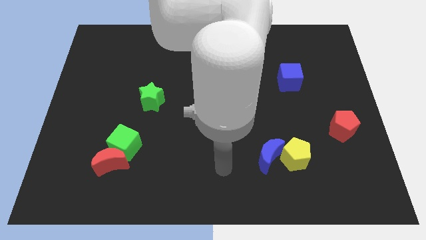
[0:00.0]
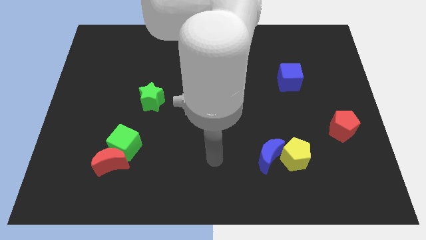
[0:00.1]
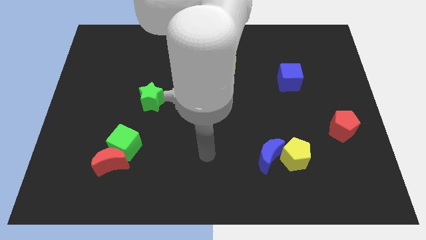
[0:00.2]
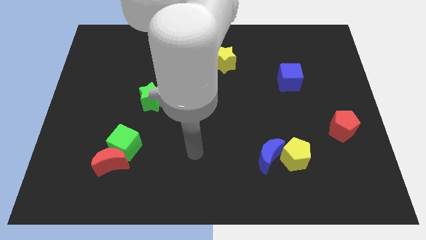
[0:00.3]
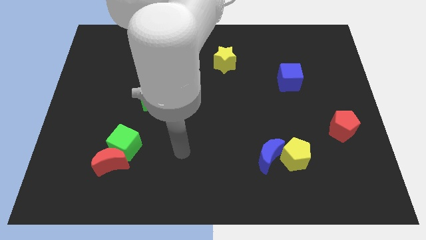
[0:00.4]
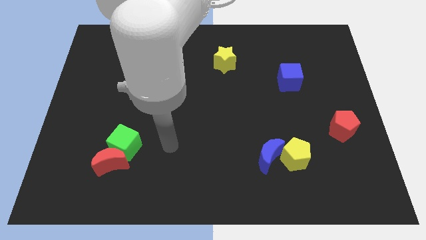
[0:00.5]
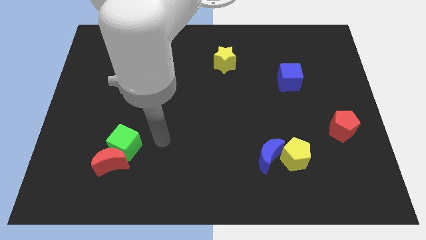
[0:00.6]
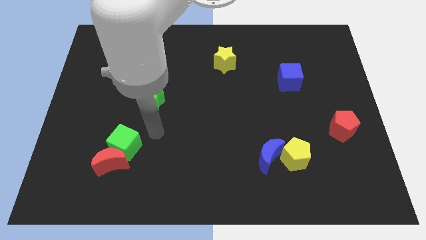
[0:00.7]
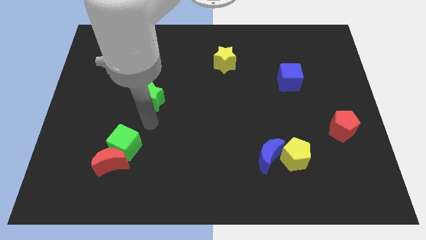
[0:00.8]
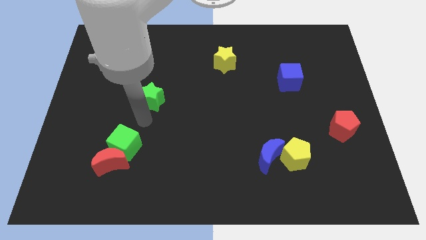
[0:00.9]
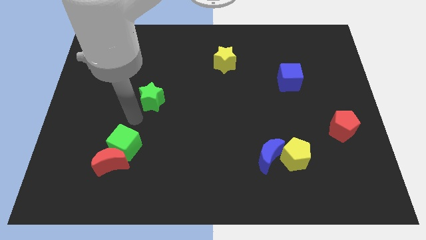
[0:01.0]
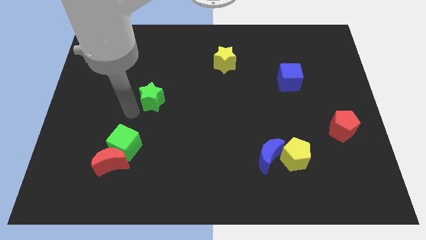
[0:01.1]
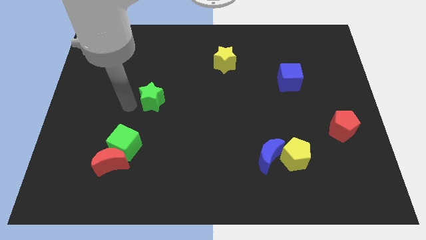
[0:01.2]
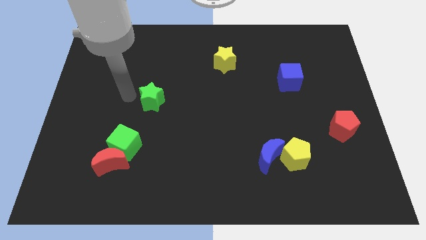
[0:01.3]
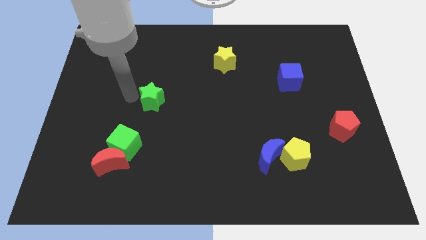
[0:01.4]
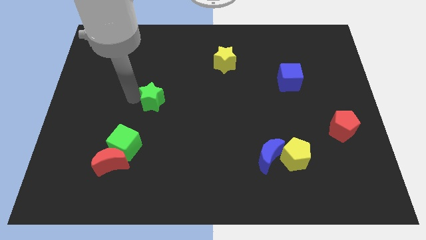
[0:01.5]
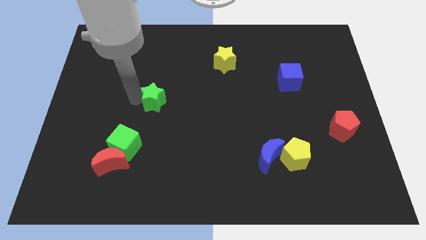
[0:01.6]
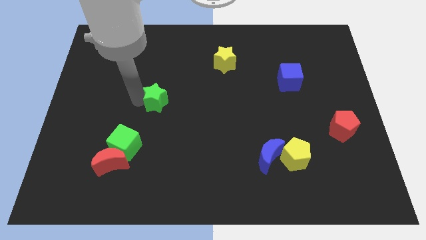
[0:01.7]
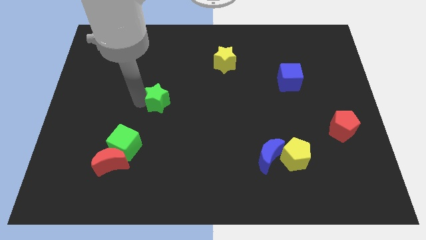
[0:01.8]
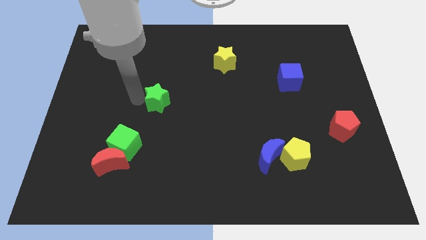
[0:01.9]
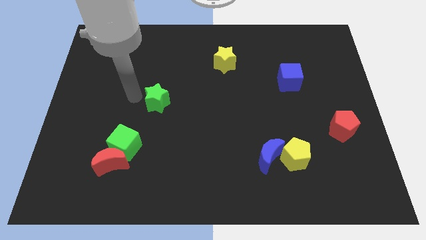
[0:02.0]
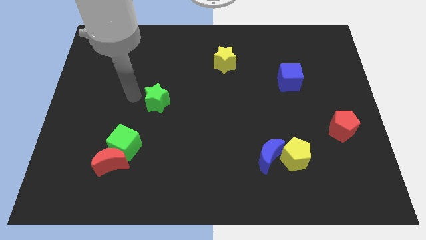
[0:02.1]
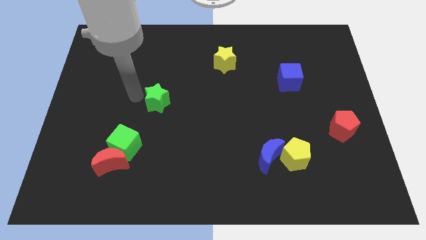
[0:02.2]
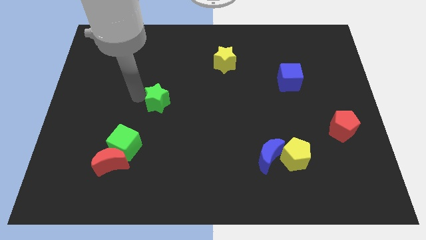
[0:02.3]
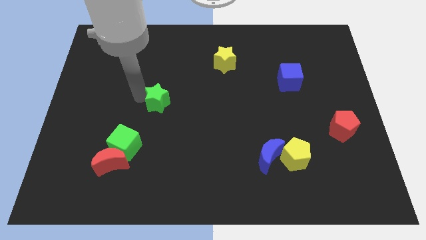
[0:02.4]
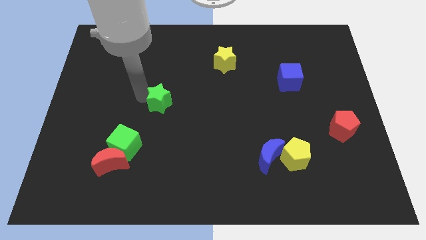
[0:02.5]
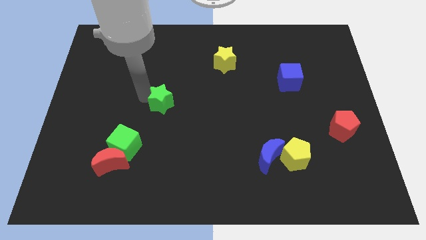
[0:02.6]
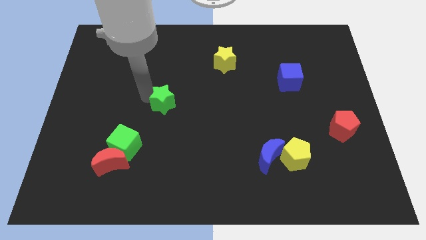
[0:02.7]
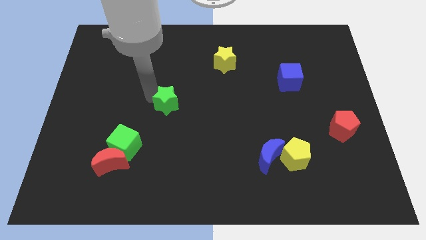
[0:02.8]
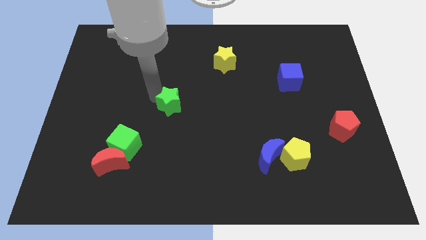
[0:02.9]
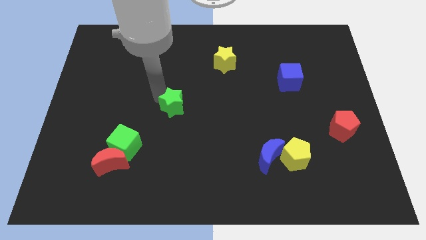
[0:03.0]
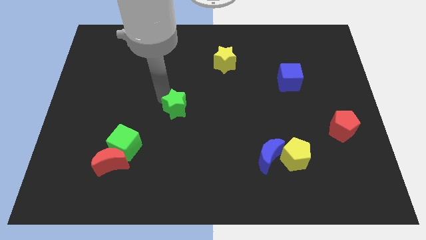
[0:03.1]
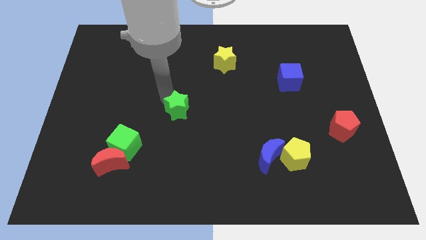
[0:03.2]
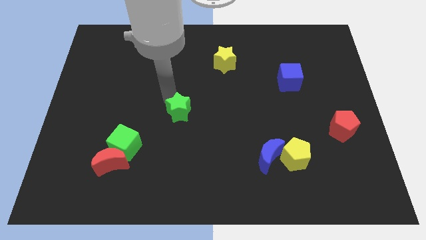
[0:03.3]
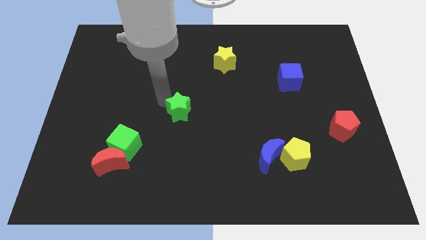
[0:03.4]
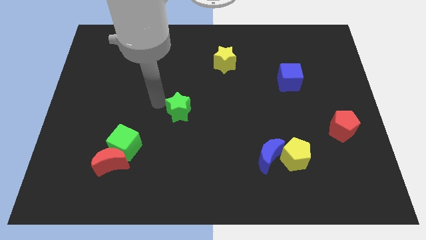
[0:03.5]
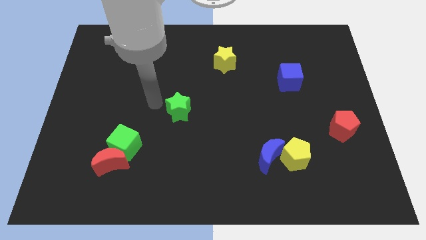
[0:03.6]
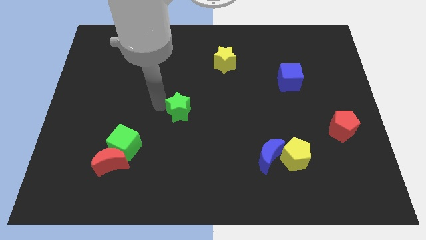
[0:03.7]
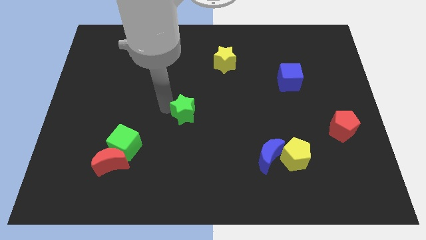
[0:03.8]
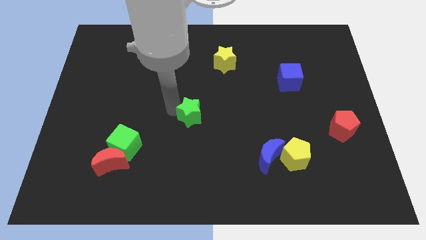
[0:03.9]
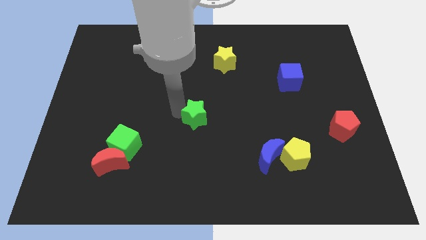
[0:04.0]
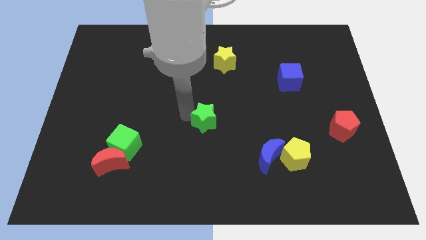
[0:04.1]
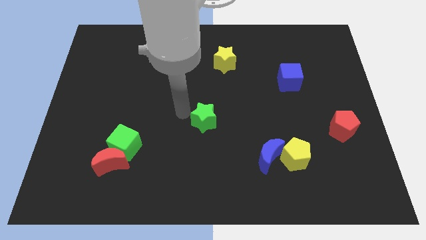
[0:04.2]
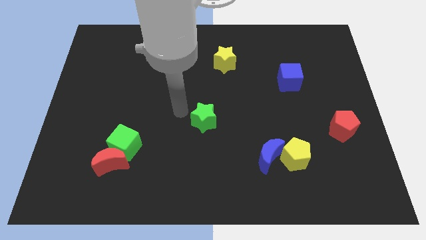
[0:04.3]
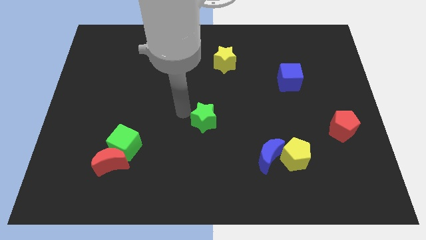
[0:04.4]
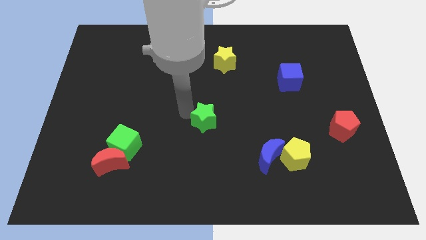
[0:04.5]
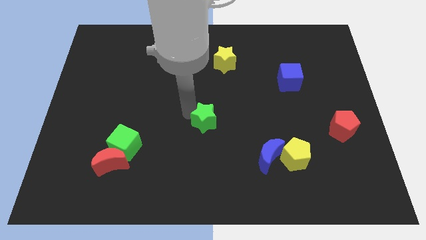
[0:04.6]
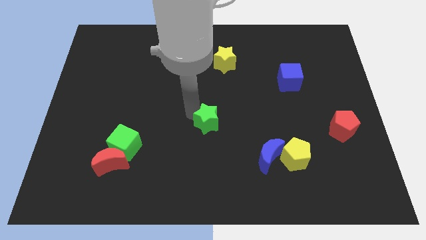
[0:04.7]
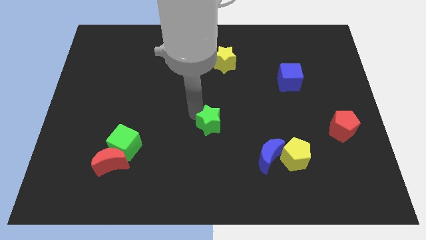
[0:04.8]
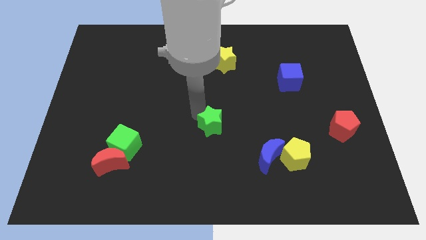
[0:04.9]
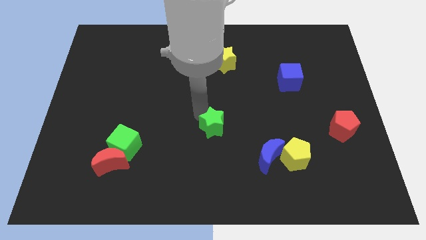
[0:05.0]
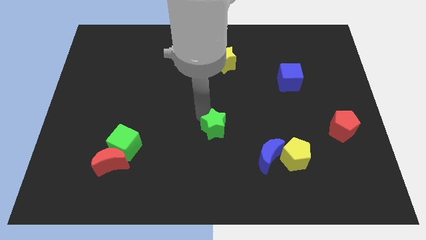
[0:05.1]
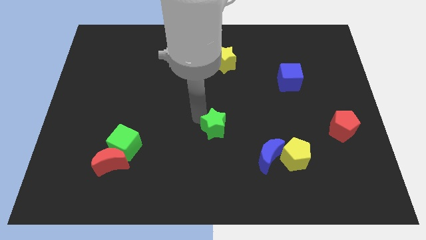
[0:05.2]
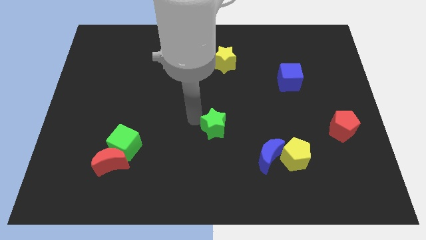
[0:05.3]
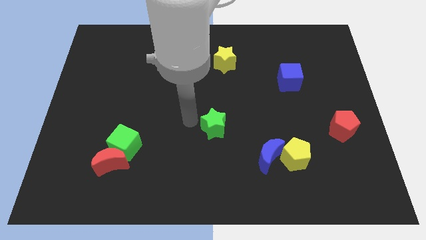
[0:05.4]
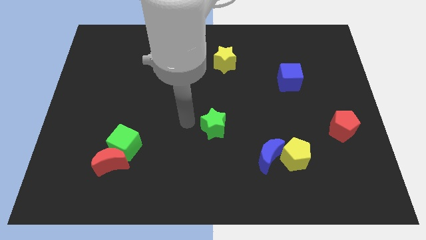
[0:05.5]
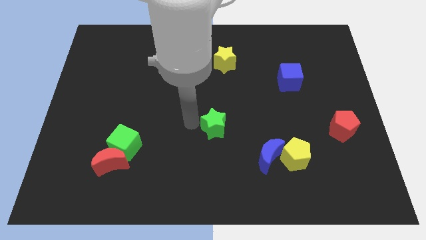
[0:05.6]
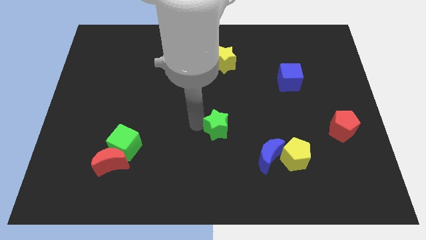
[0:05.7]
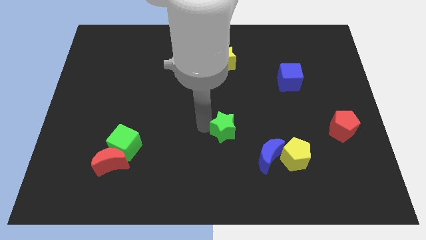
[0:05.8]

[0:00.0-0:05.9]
move the green star diagonally up and to the left of the blue moon

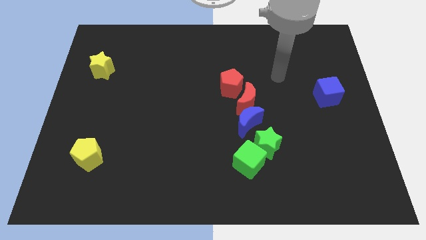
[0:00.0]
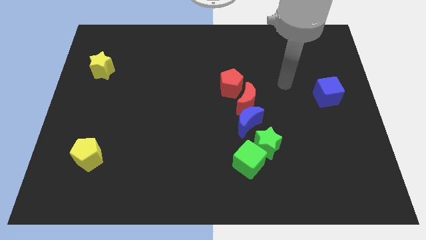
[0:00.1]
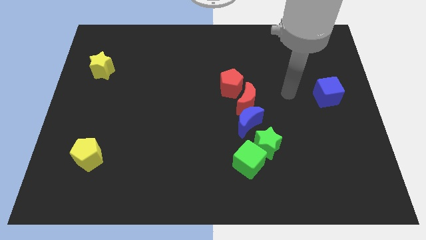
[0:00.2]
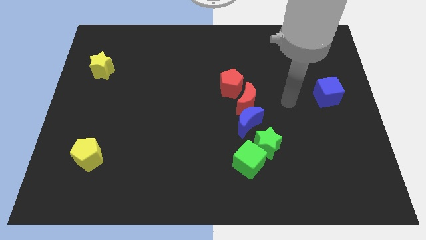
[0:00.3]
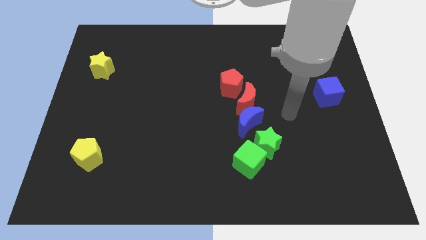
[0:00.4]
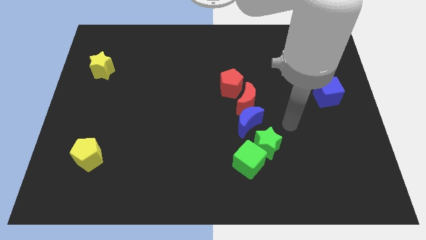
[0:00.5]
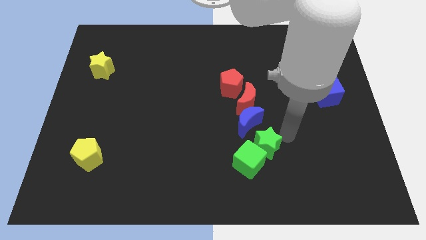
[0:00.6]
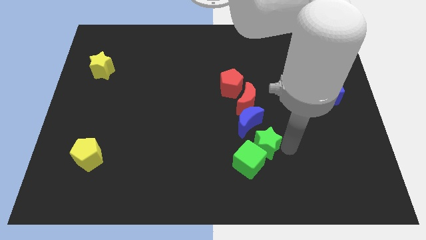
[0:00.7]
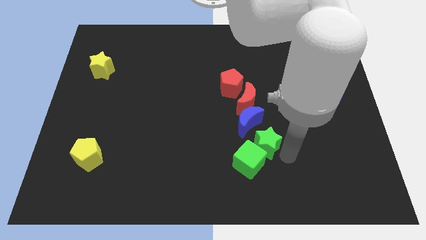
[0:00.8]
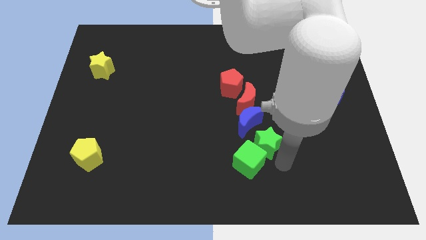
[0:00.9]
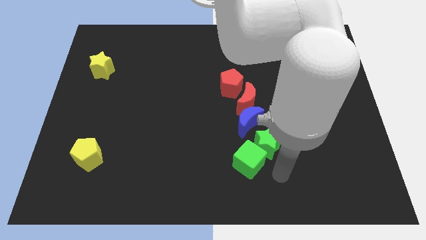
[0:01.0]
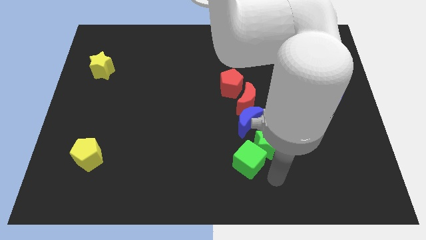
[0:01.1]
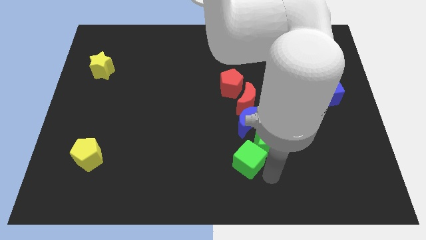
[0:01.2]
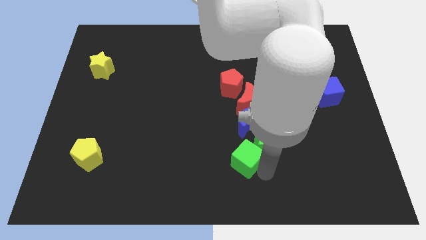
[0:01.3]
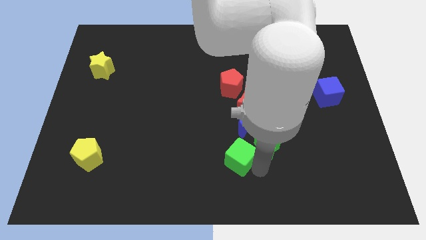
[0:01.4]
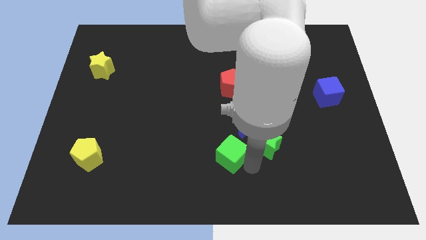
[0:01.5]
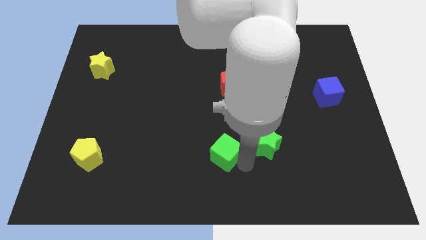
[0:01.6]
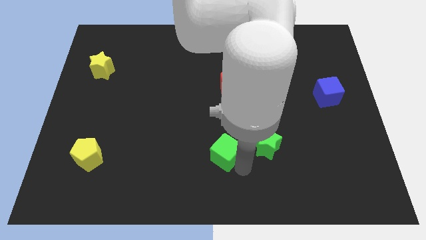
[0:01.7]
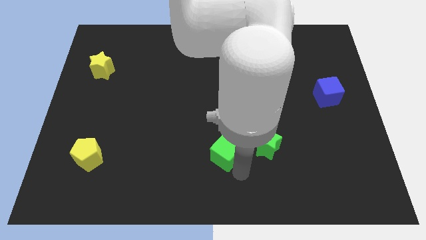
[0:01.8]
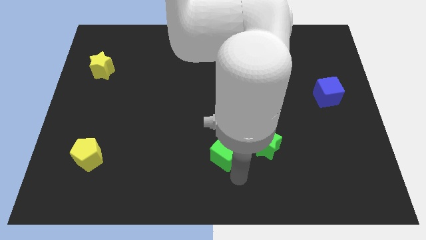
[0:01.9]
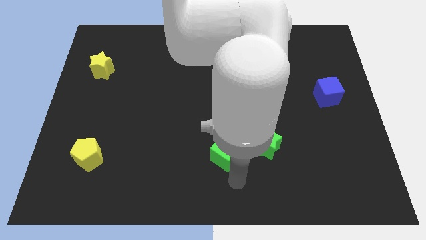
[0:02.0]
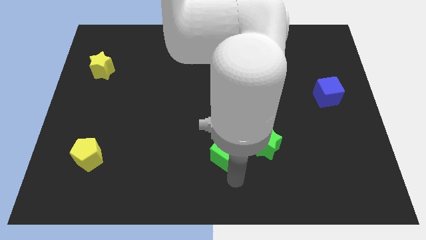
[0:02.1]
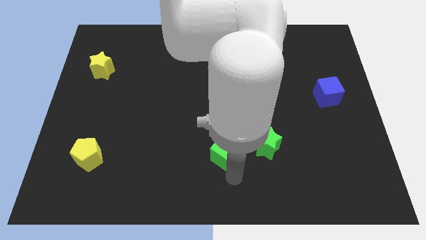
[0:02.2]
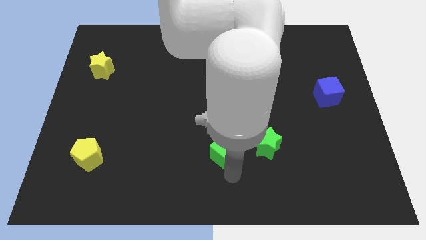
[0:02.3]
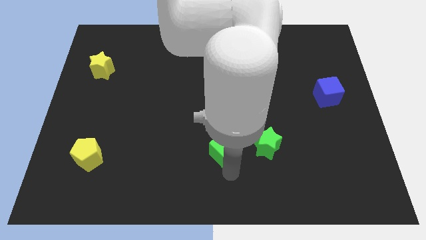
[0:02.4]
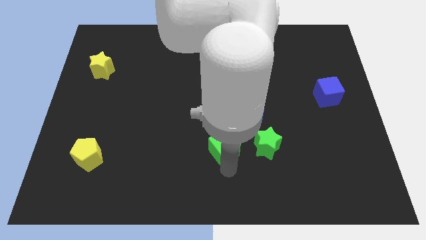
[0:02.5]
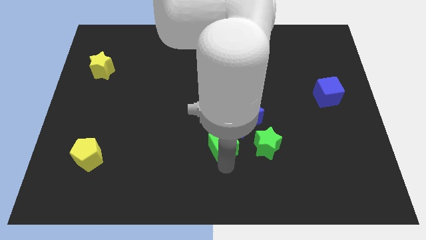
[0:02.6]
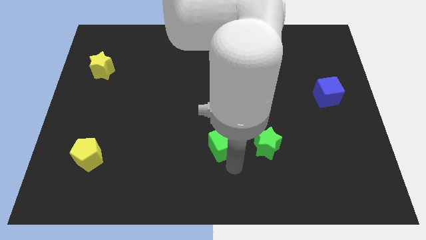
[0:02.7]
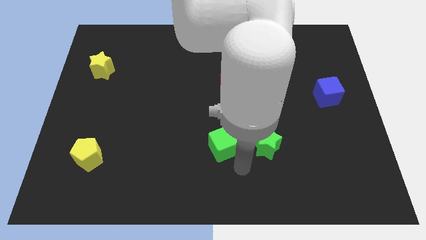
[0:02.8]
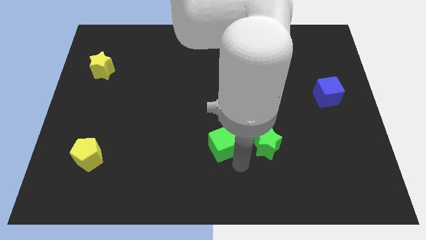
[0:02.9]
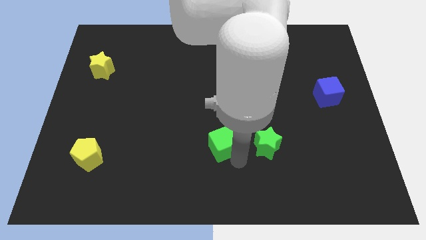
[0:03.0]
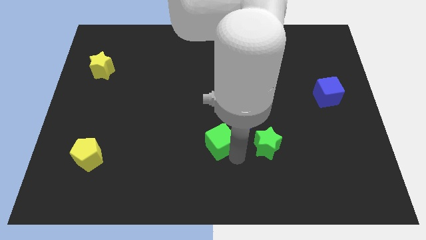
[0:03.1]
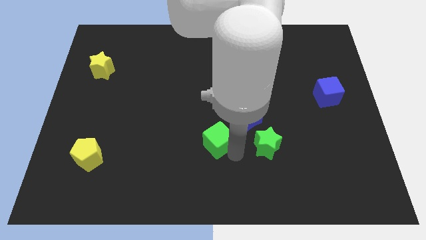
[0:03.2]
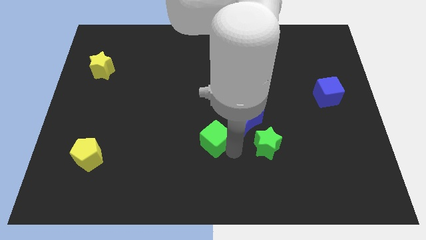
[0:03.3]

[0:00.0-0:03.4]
move the green cube to the left of the blue moon
